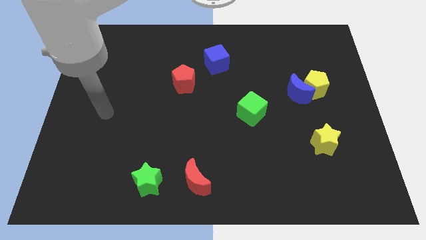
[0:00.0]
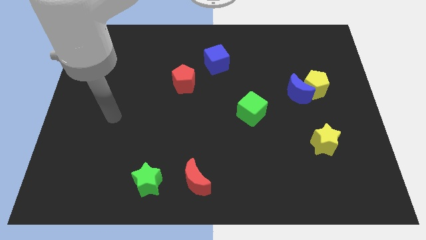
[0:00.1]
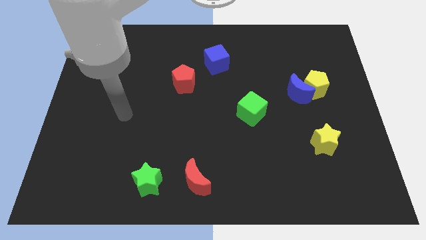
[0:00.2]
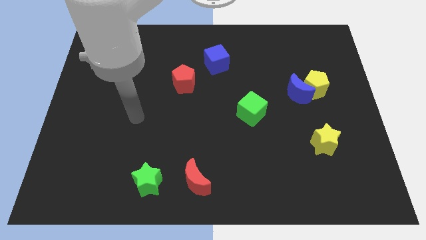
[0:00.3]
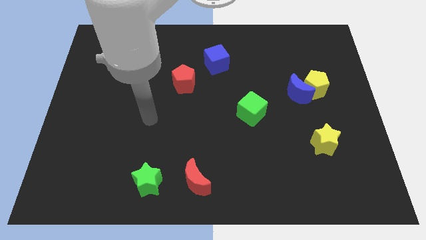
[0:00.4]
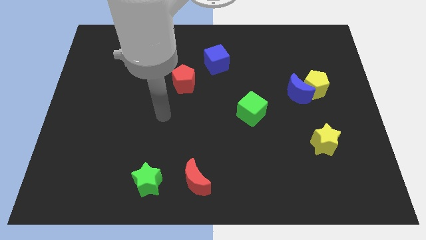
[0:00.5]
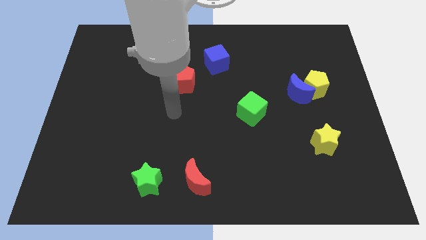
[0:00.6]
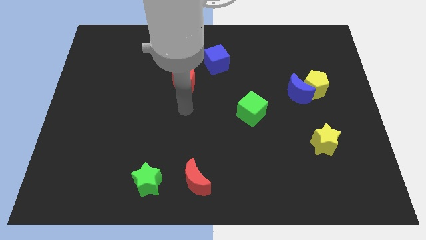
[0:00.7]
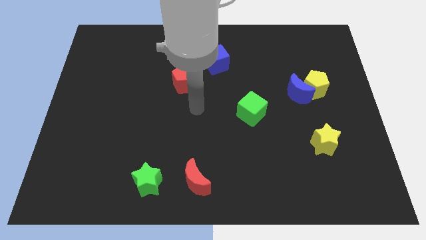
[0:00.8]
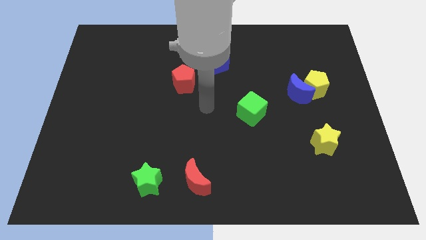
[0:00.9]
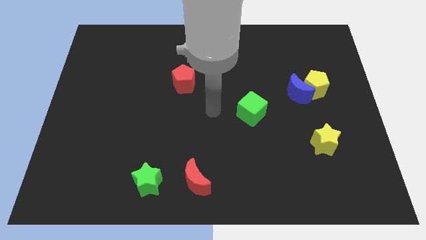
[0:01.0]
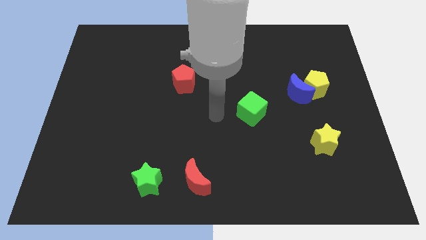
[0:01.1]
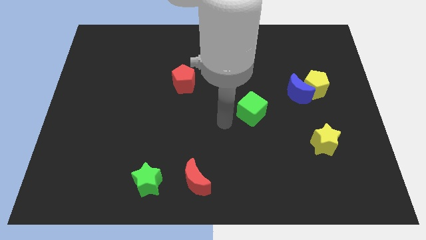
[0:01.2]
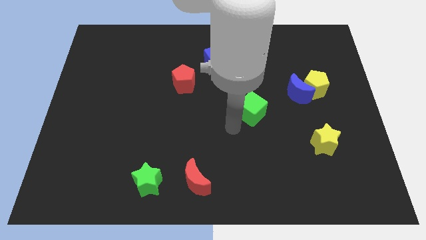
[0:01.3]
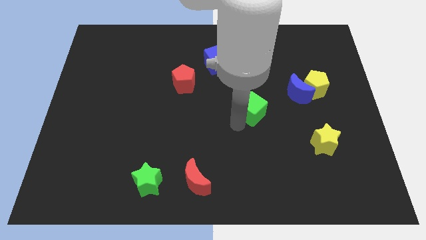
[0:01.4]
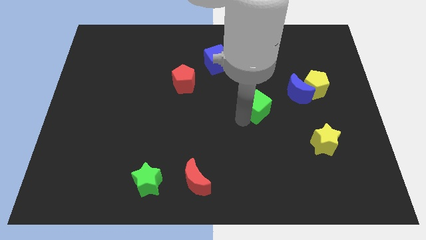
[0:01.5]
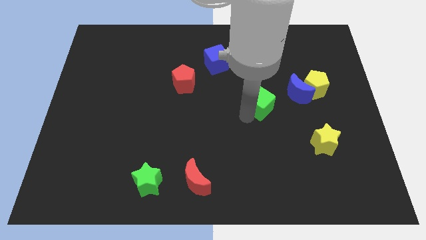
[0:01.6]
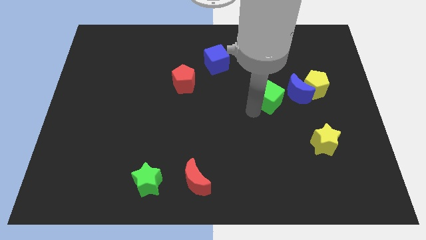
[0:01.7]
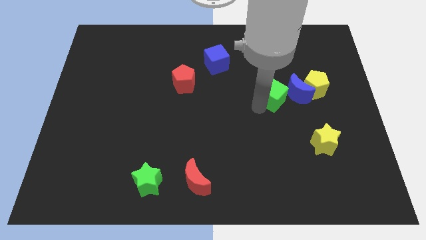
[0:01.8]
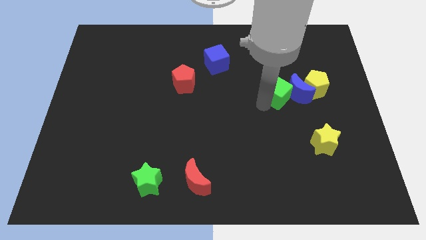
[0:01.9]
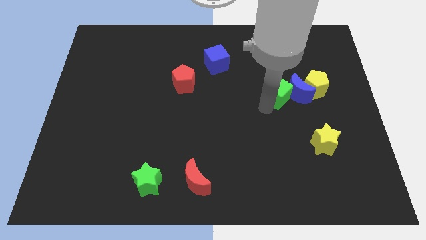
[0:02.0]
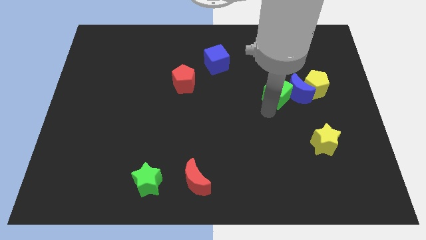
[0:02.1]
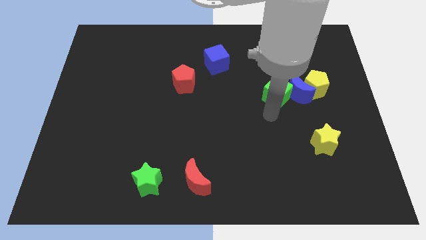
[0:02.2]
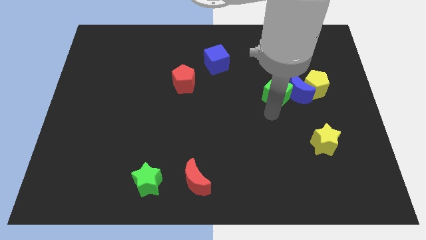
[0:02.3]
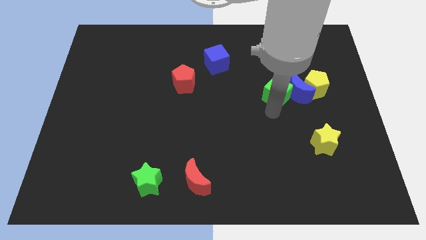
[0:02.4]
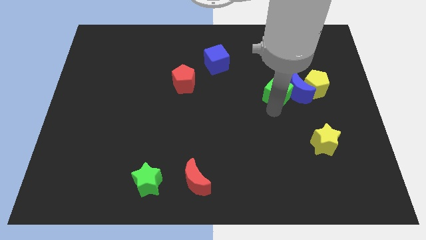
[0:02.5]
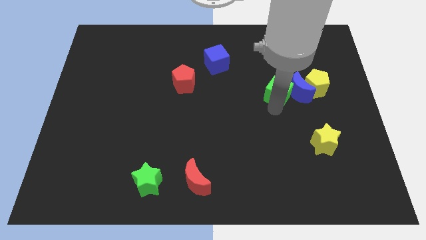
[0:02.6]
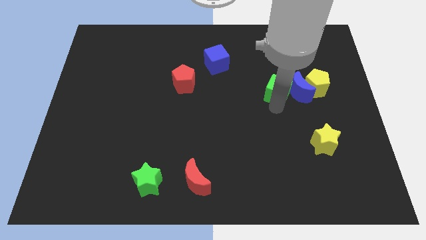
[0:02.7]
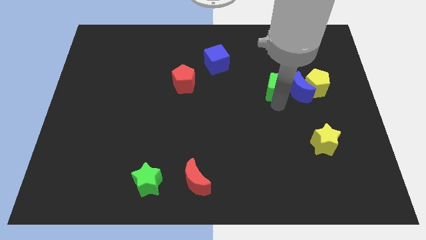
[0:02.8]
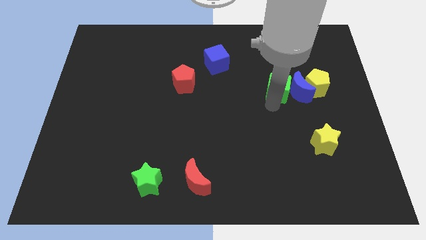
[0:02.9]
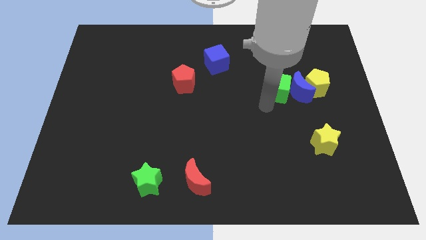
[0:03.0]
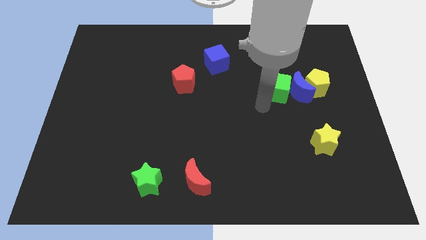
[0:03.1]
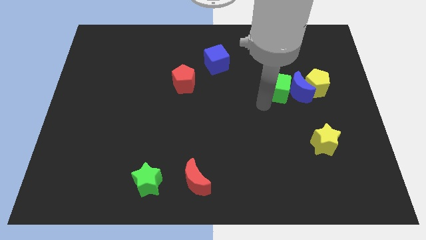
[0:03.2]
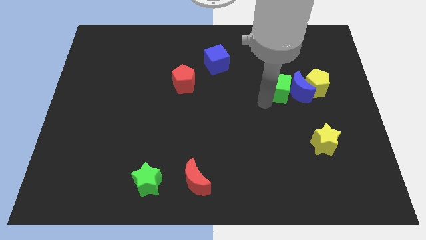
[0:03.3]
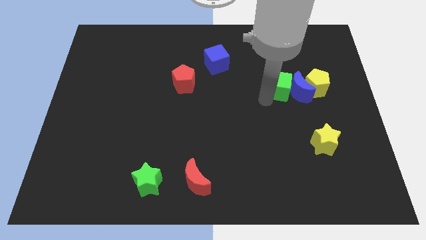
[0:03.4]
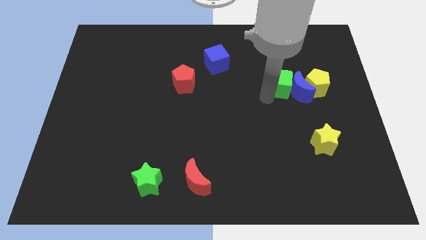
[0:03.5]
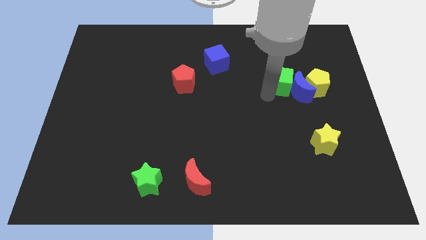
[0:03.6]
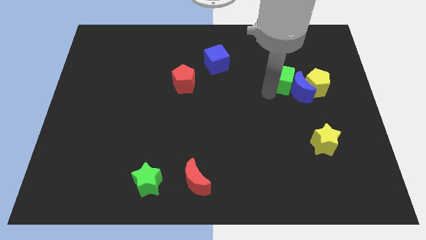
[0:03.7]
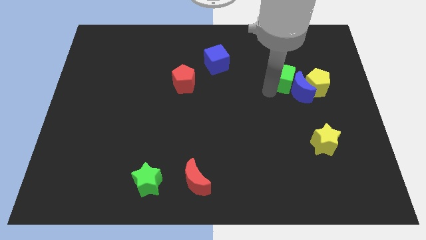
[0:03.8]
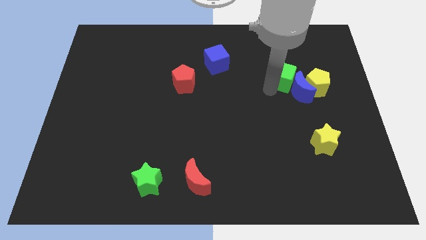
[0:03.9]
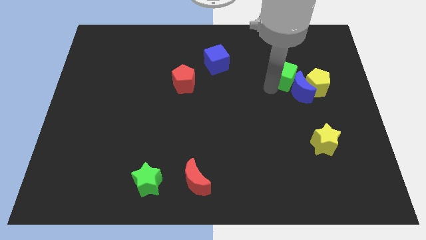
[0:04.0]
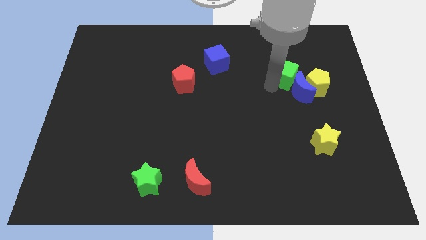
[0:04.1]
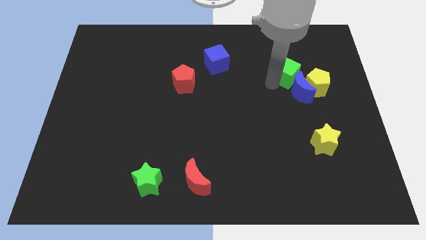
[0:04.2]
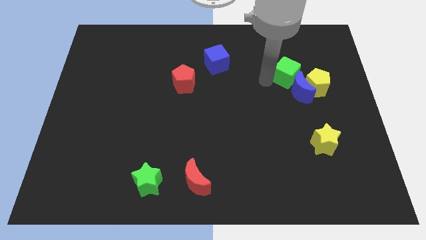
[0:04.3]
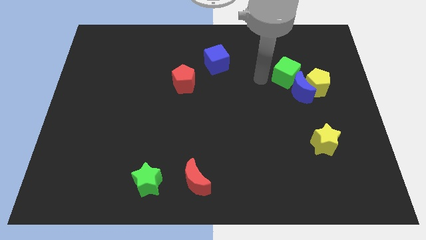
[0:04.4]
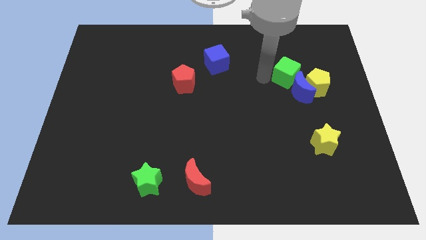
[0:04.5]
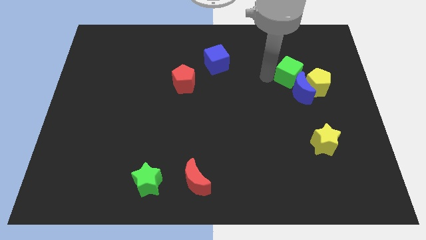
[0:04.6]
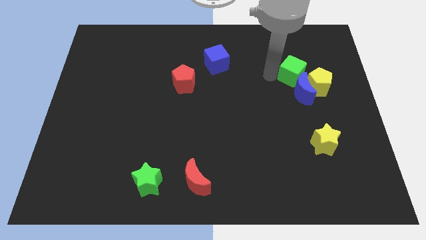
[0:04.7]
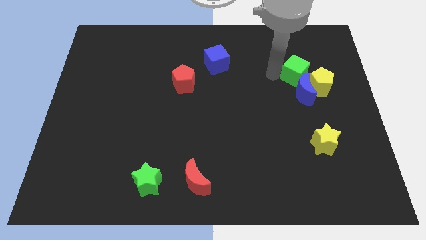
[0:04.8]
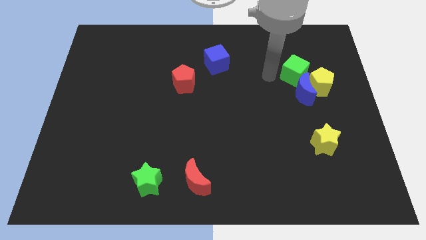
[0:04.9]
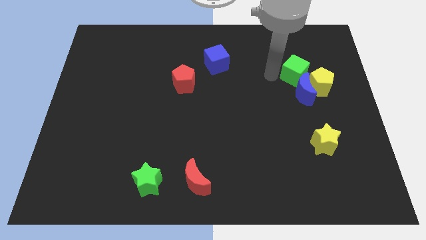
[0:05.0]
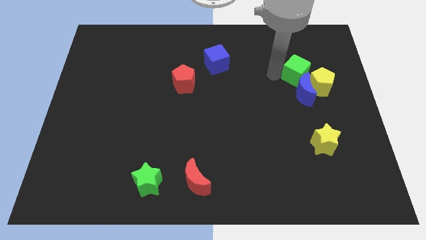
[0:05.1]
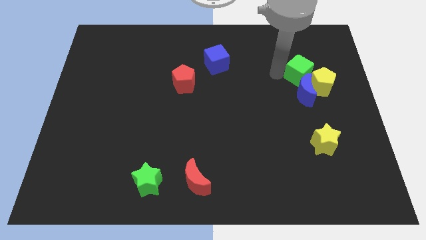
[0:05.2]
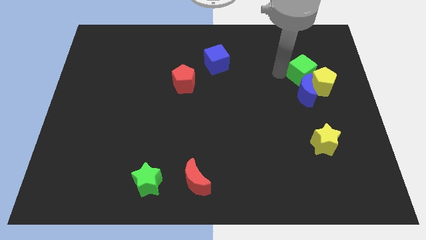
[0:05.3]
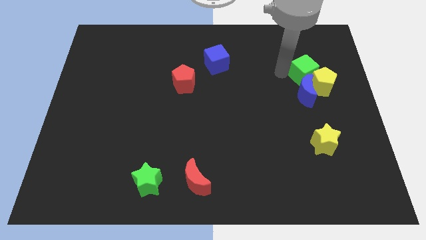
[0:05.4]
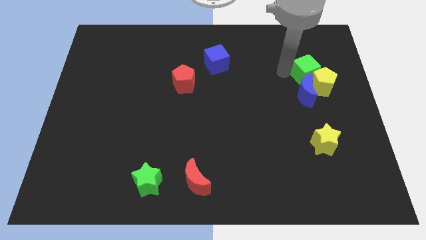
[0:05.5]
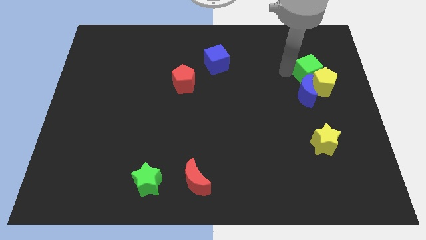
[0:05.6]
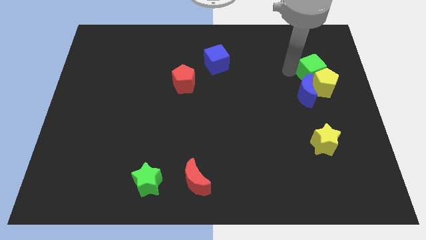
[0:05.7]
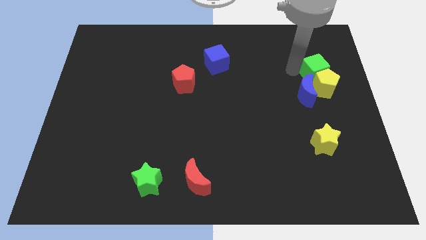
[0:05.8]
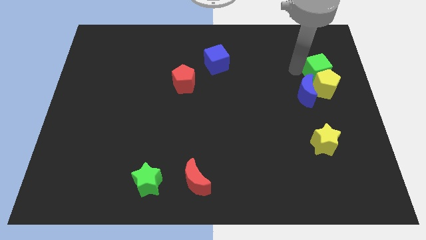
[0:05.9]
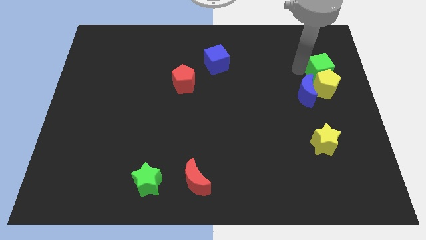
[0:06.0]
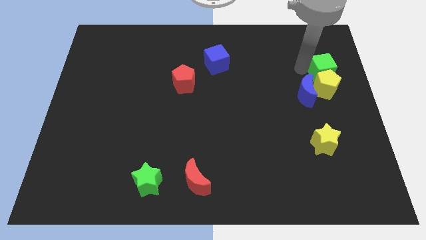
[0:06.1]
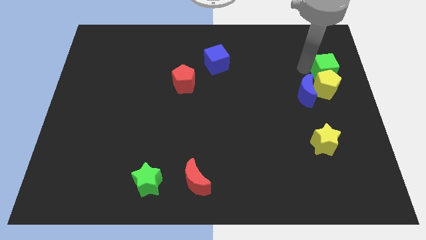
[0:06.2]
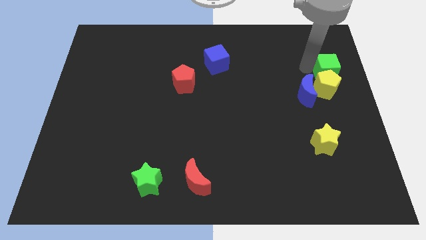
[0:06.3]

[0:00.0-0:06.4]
move the green cube to the center right
